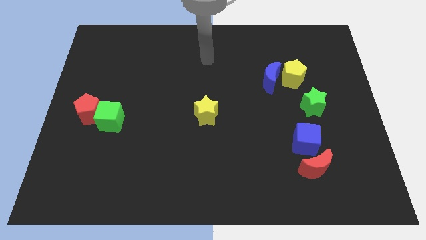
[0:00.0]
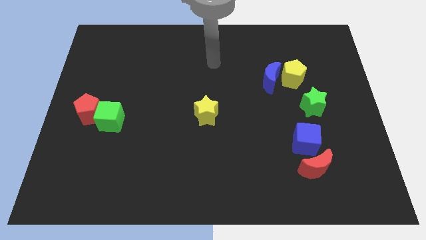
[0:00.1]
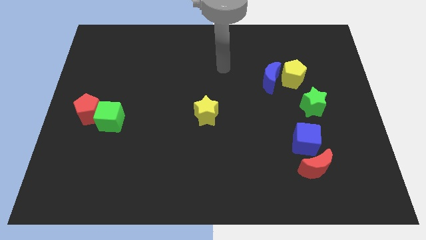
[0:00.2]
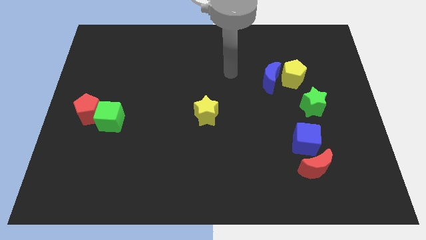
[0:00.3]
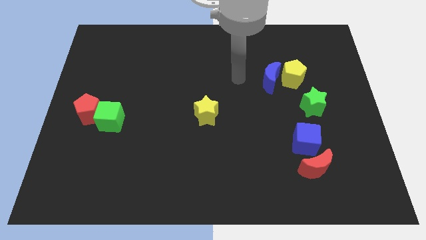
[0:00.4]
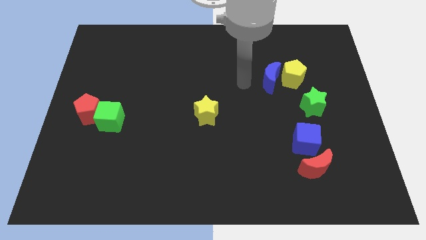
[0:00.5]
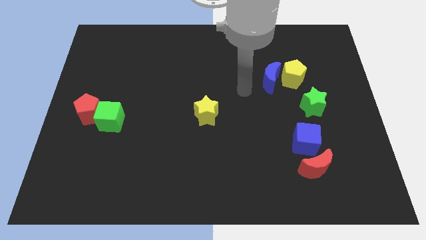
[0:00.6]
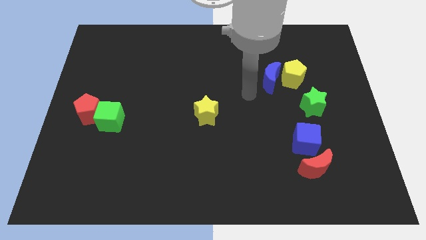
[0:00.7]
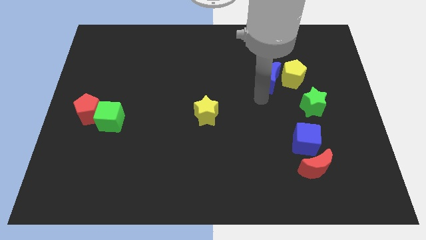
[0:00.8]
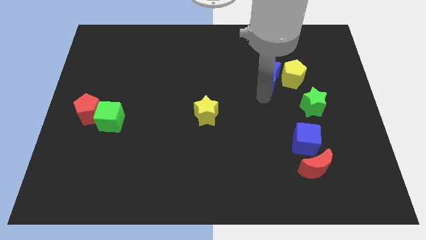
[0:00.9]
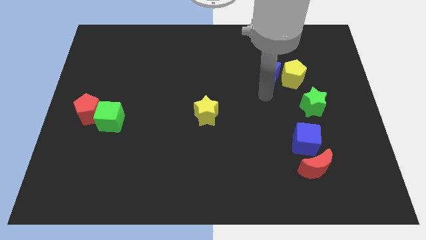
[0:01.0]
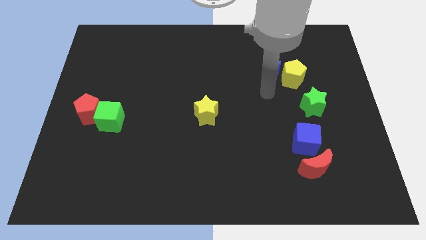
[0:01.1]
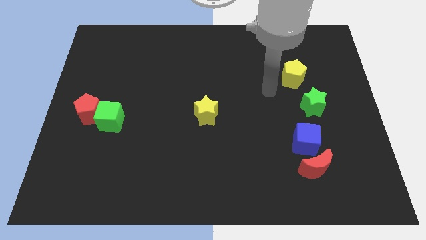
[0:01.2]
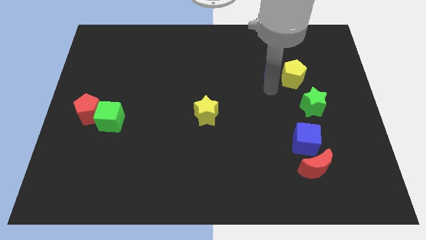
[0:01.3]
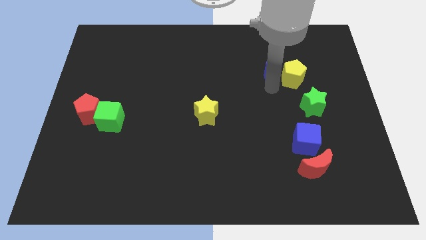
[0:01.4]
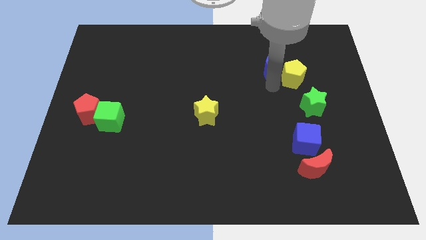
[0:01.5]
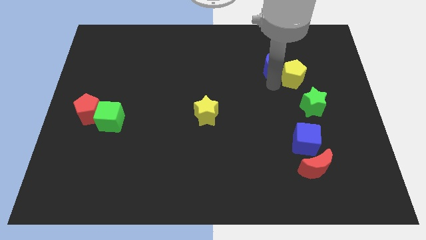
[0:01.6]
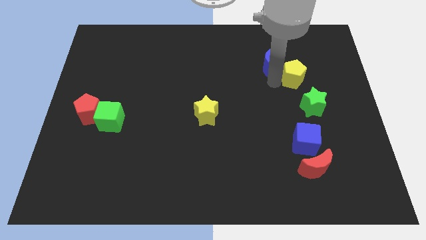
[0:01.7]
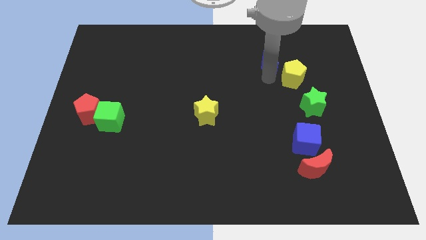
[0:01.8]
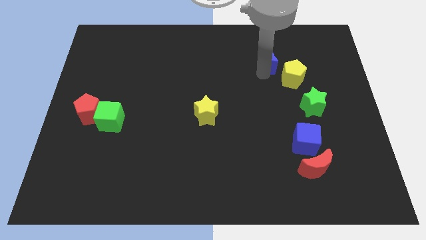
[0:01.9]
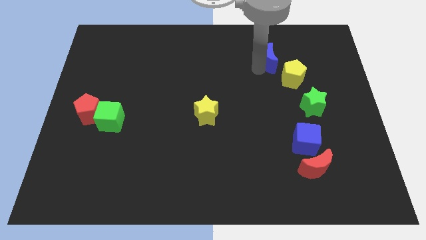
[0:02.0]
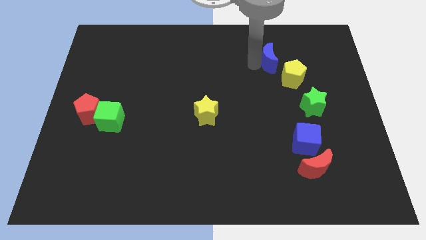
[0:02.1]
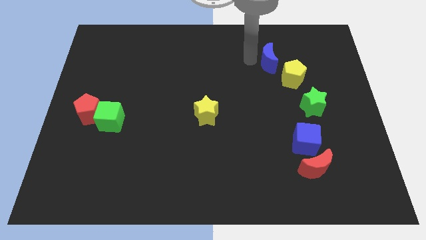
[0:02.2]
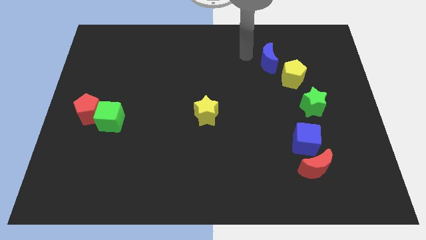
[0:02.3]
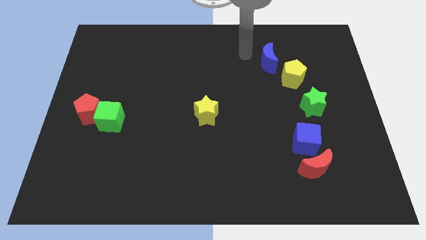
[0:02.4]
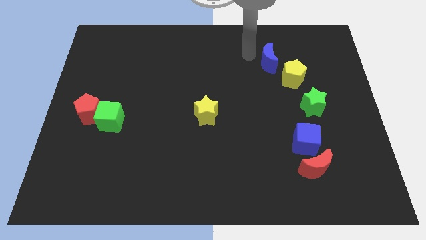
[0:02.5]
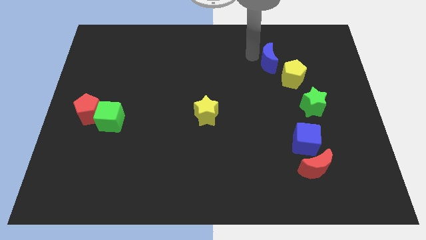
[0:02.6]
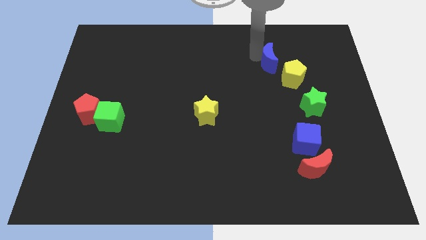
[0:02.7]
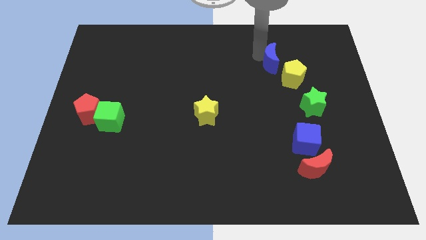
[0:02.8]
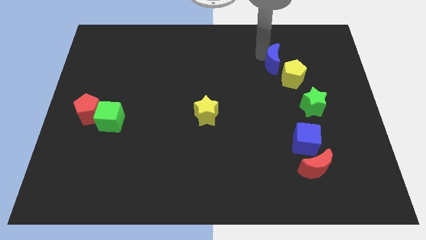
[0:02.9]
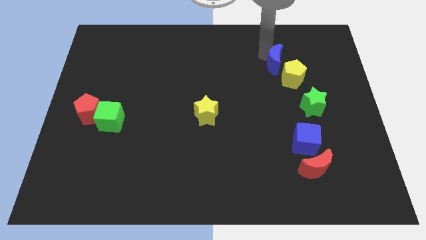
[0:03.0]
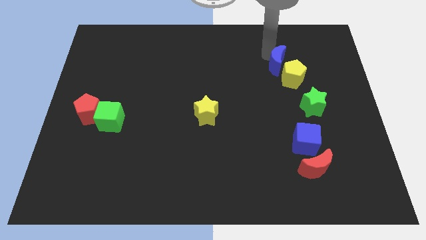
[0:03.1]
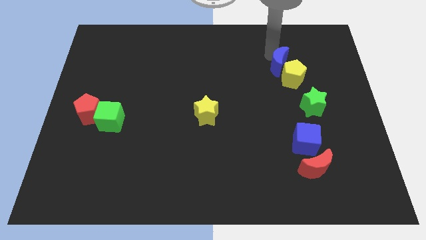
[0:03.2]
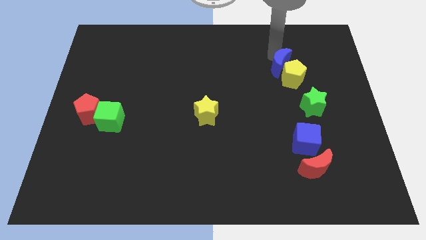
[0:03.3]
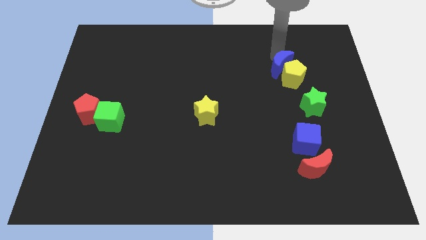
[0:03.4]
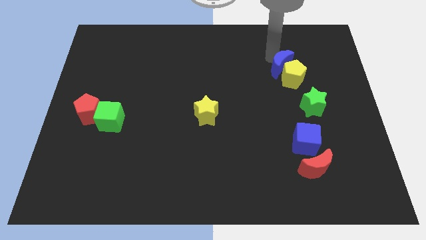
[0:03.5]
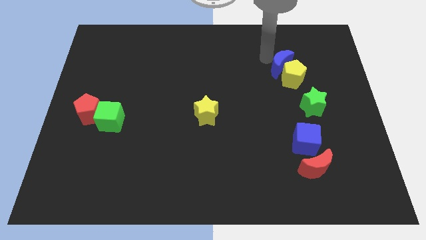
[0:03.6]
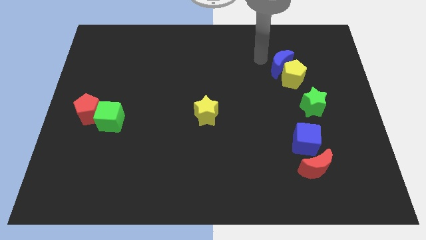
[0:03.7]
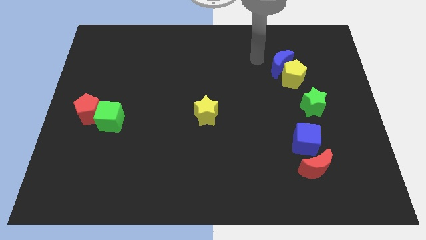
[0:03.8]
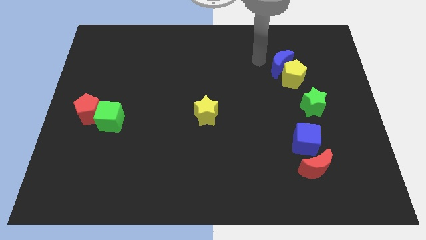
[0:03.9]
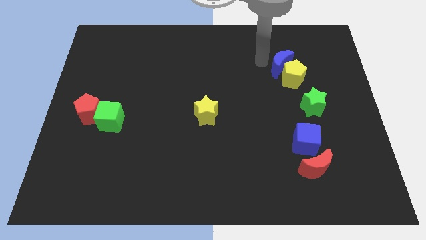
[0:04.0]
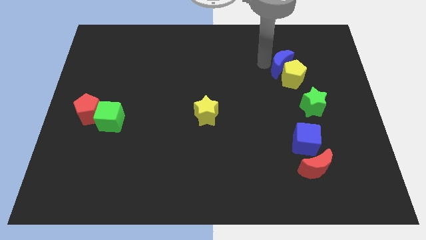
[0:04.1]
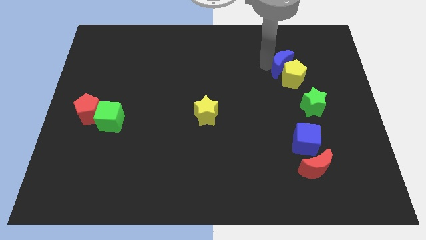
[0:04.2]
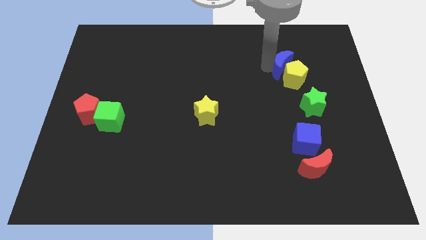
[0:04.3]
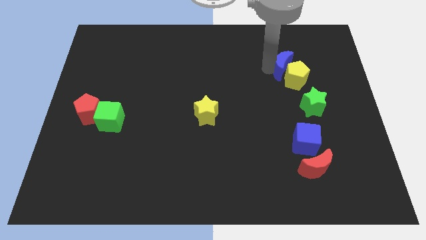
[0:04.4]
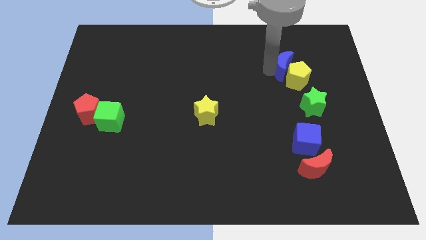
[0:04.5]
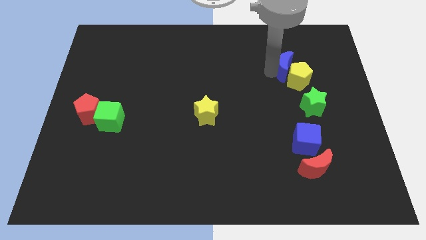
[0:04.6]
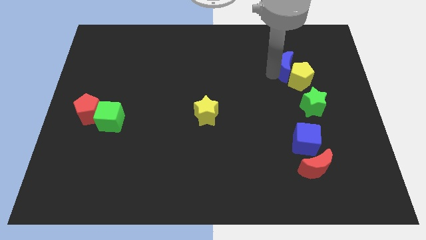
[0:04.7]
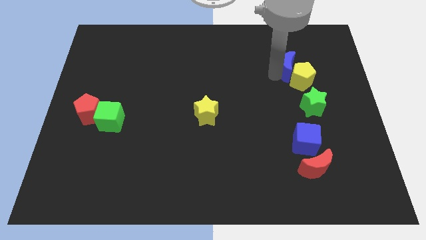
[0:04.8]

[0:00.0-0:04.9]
push the blue moon to the top side of the green star

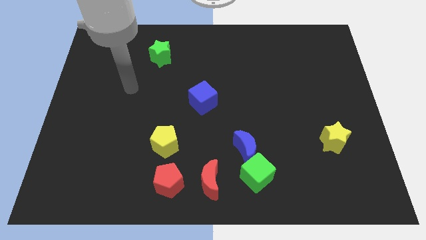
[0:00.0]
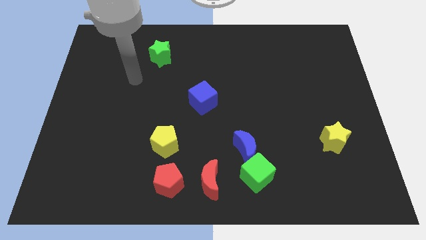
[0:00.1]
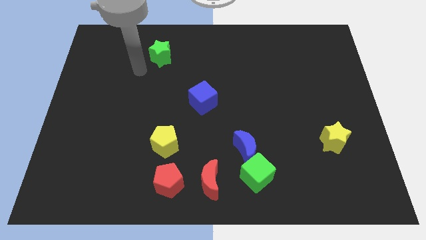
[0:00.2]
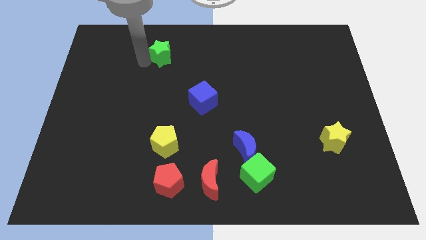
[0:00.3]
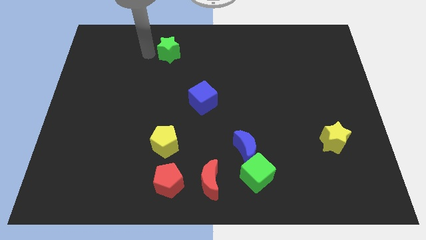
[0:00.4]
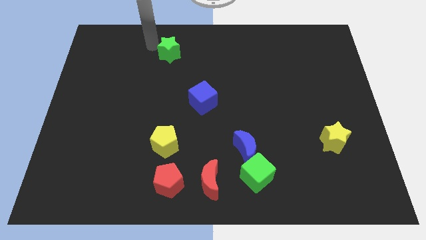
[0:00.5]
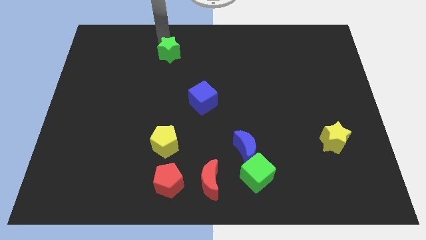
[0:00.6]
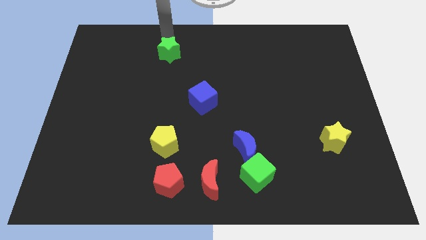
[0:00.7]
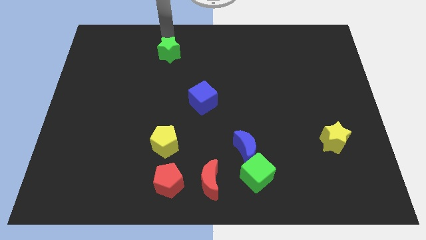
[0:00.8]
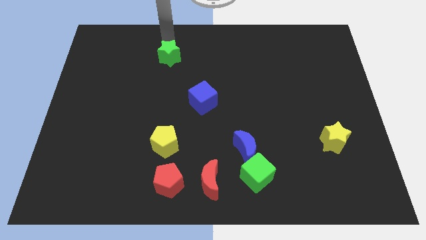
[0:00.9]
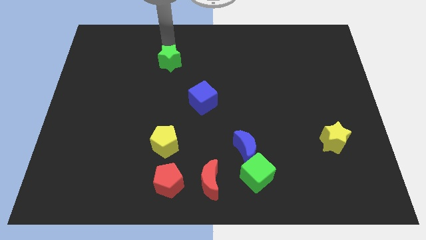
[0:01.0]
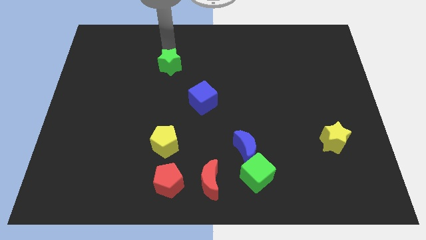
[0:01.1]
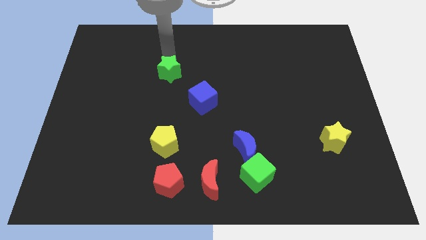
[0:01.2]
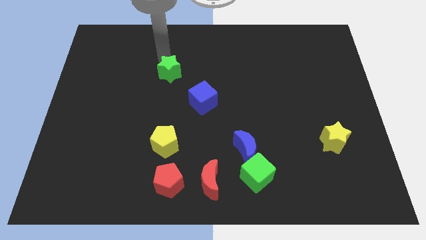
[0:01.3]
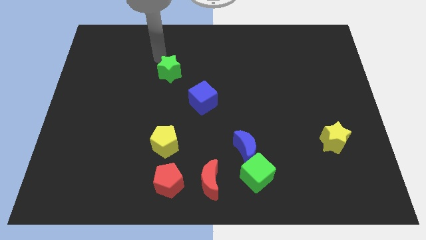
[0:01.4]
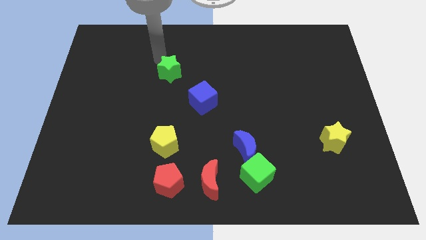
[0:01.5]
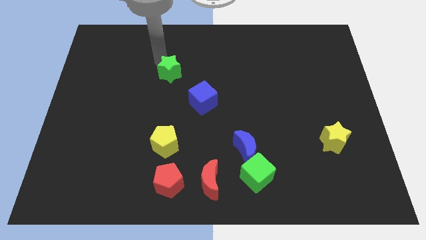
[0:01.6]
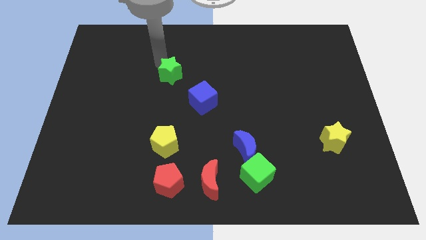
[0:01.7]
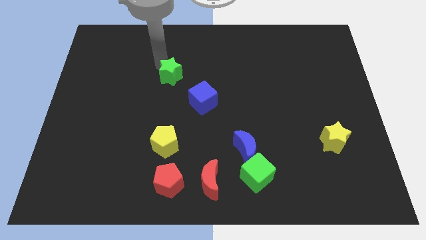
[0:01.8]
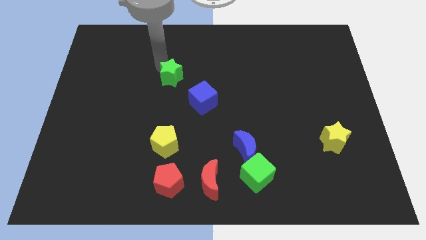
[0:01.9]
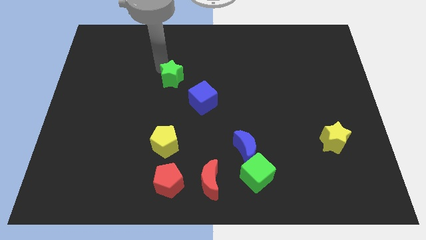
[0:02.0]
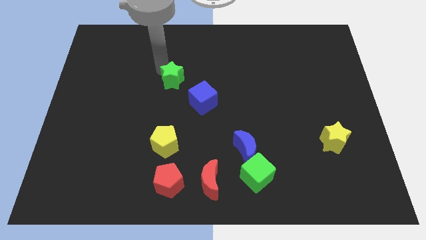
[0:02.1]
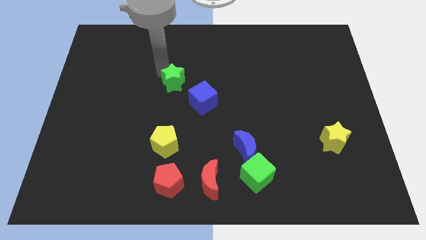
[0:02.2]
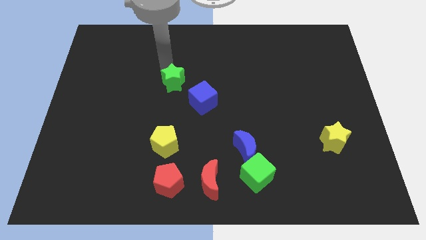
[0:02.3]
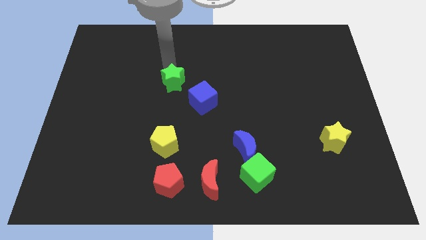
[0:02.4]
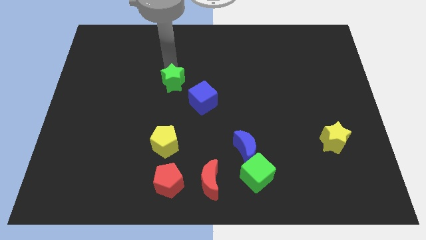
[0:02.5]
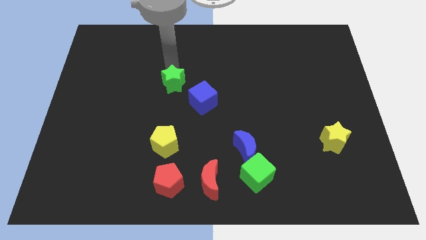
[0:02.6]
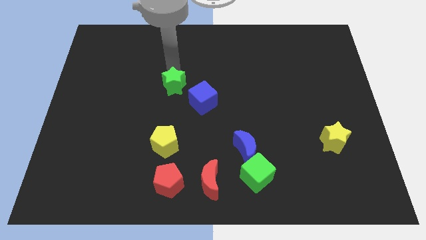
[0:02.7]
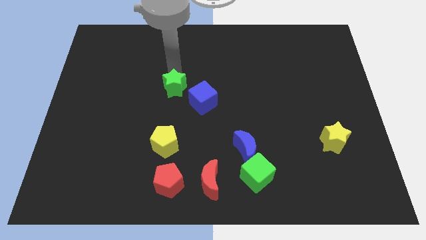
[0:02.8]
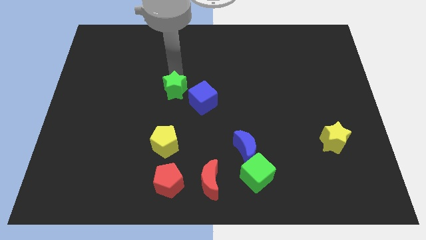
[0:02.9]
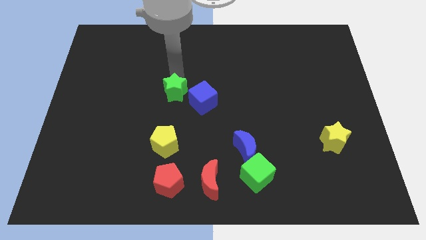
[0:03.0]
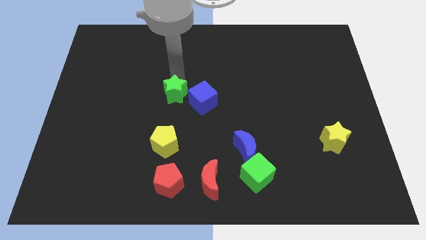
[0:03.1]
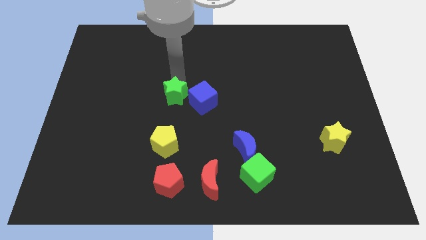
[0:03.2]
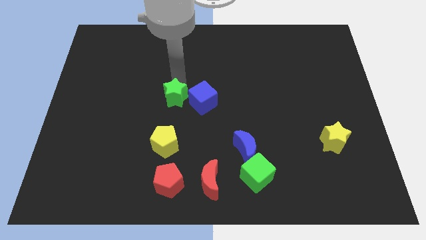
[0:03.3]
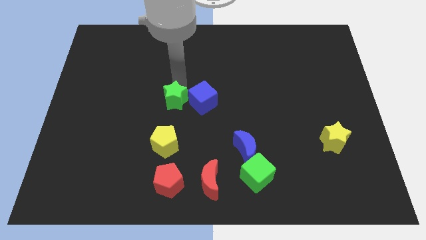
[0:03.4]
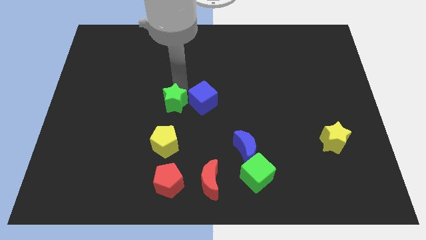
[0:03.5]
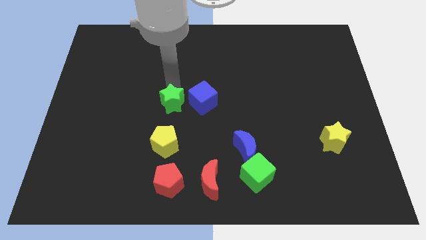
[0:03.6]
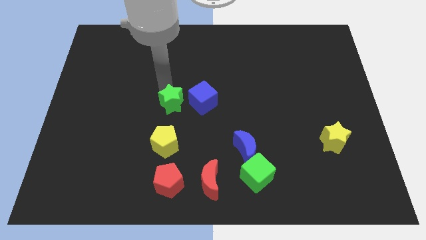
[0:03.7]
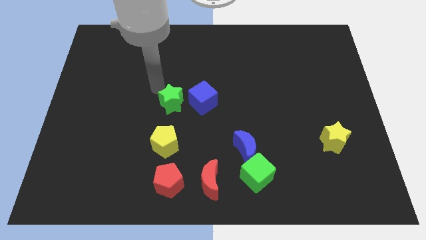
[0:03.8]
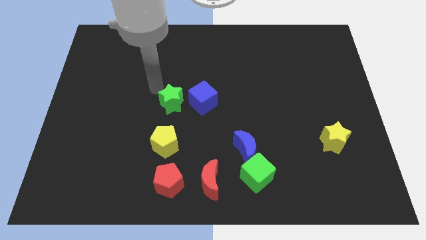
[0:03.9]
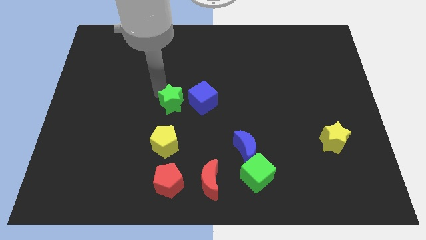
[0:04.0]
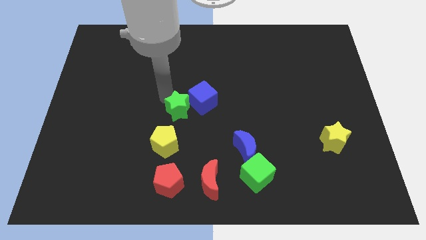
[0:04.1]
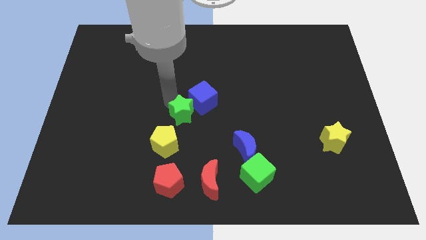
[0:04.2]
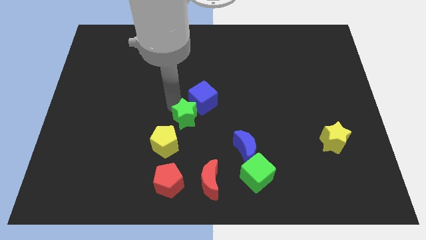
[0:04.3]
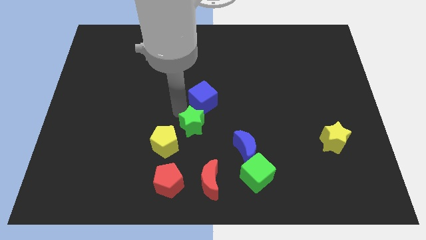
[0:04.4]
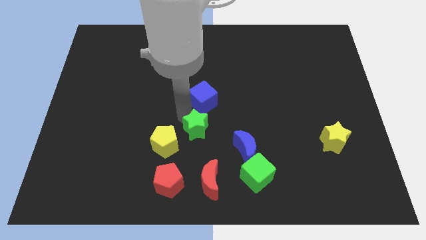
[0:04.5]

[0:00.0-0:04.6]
put the green star to the right side of the yellow pentagon
